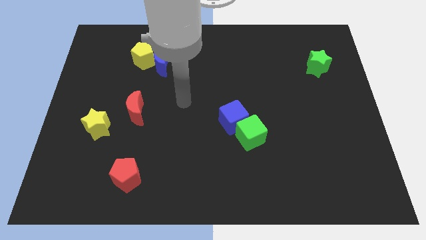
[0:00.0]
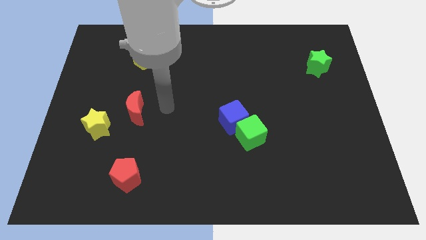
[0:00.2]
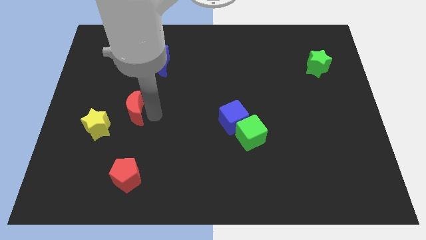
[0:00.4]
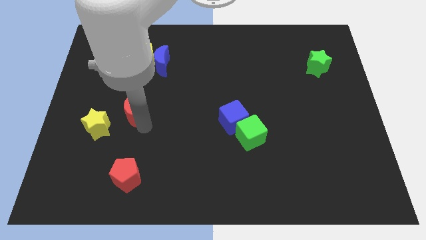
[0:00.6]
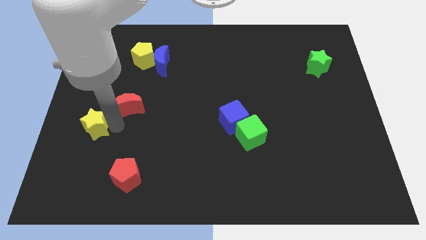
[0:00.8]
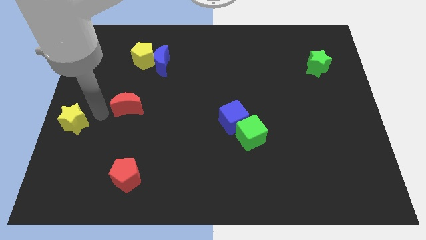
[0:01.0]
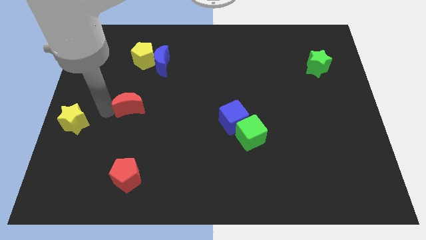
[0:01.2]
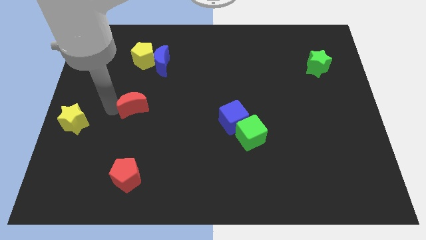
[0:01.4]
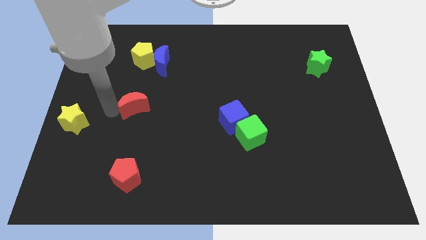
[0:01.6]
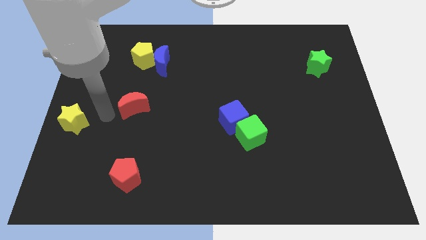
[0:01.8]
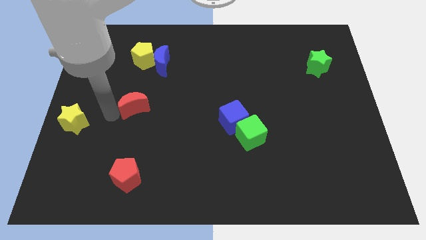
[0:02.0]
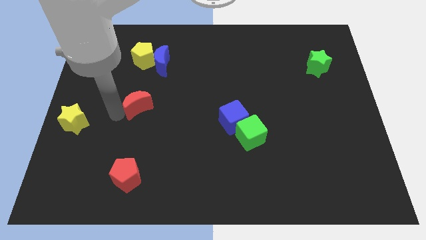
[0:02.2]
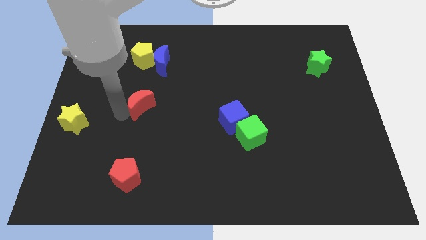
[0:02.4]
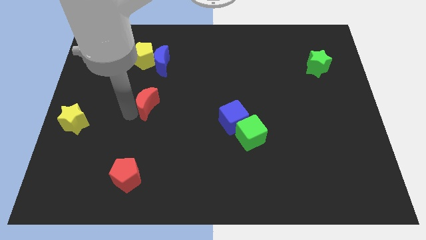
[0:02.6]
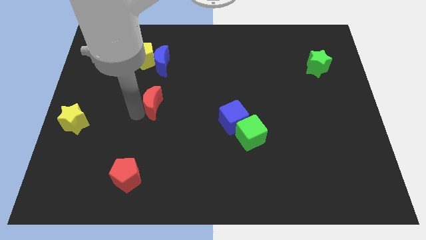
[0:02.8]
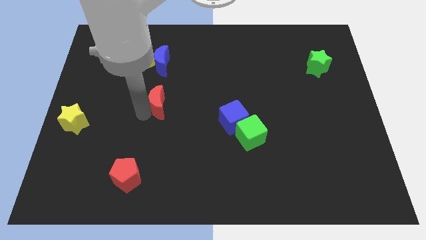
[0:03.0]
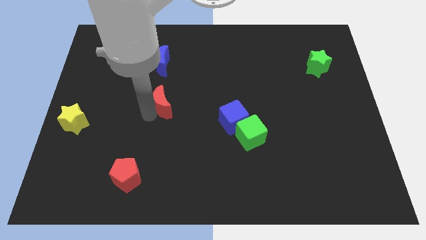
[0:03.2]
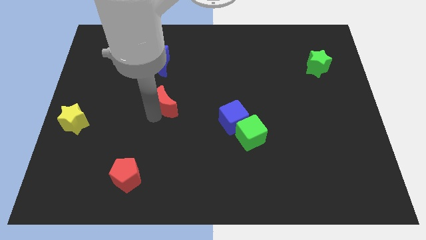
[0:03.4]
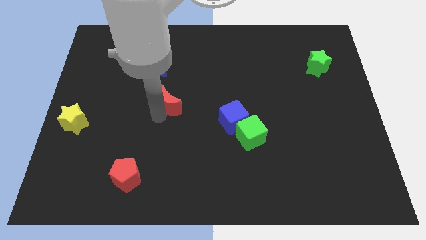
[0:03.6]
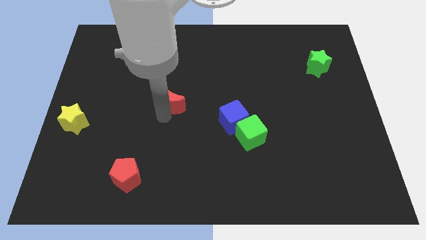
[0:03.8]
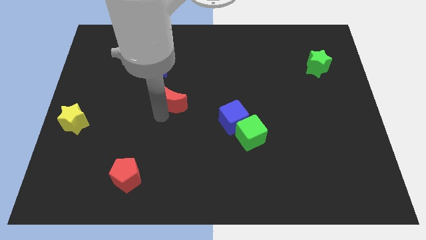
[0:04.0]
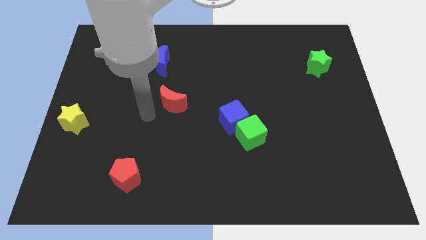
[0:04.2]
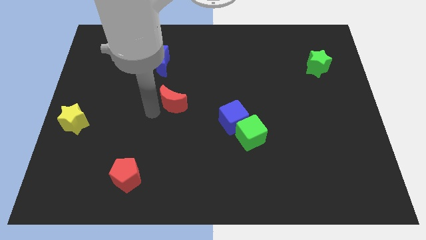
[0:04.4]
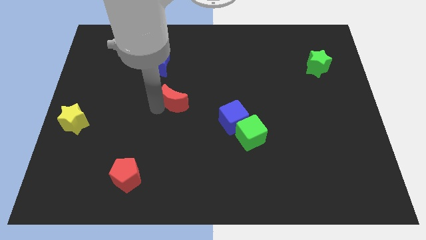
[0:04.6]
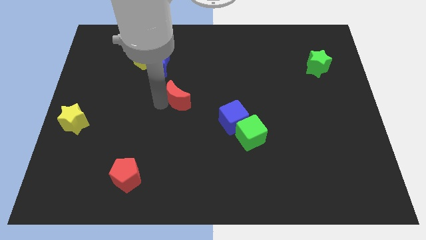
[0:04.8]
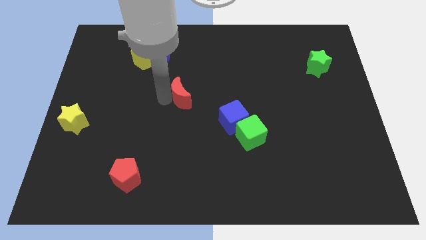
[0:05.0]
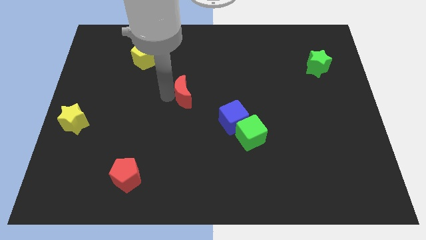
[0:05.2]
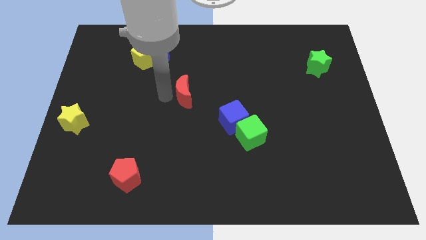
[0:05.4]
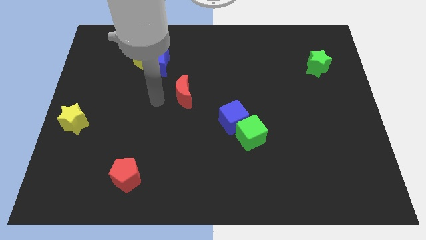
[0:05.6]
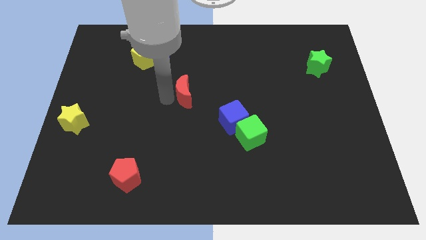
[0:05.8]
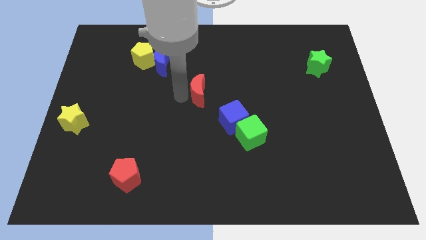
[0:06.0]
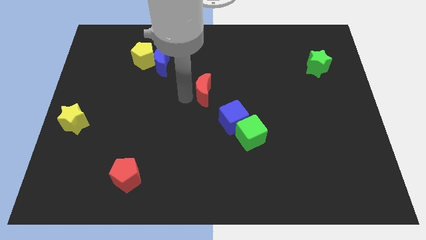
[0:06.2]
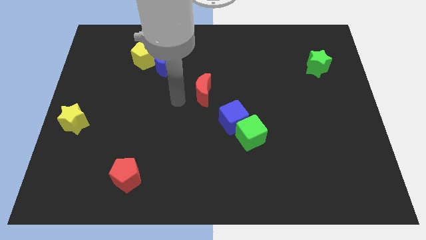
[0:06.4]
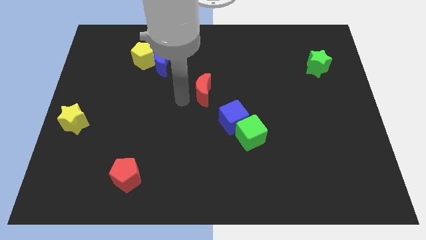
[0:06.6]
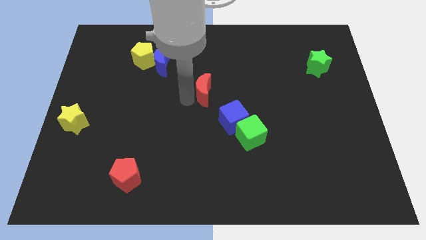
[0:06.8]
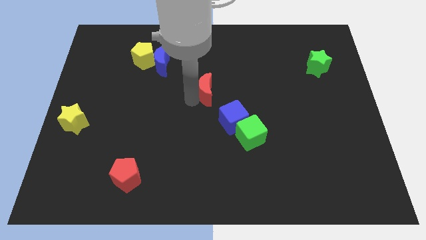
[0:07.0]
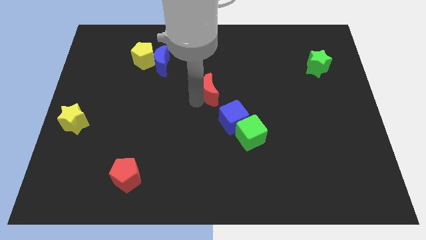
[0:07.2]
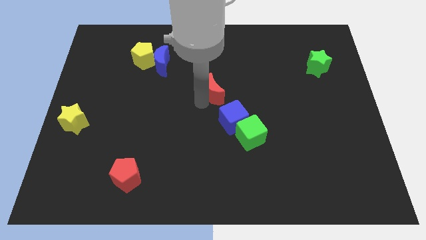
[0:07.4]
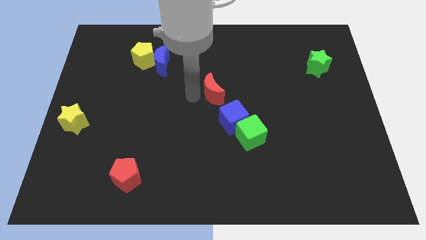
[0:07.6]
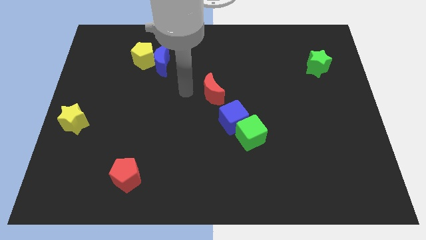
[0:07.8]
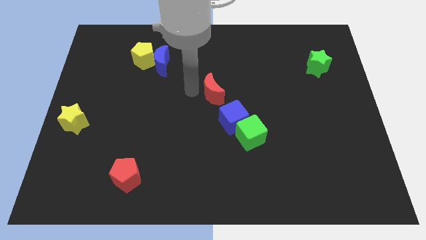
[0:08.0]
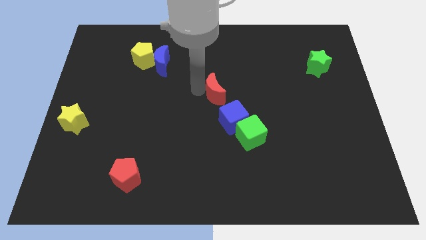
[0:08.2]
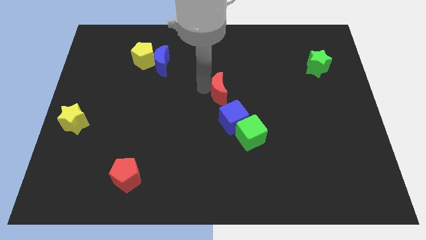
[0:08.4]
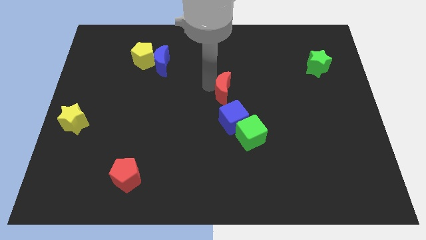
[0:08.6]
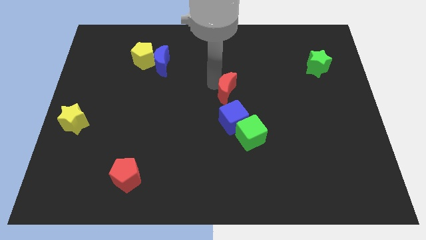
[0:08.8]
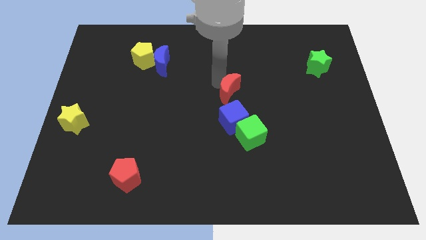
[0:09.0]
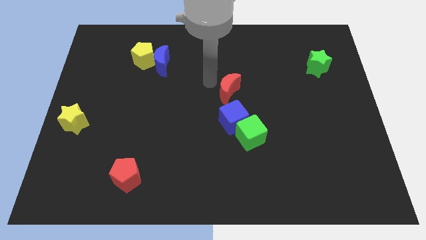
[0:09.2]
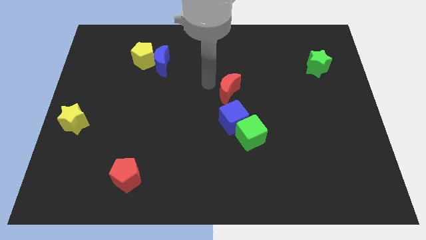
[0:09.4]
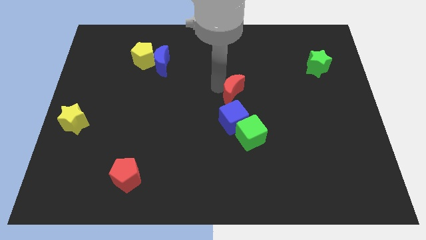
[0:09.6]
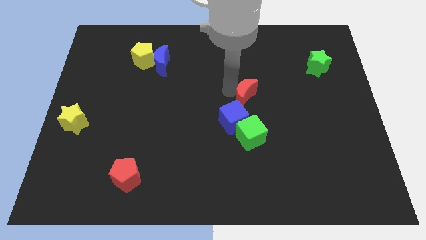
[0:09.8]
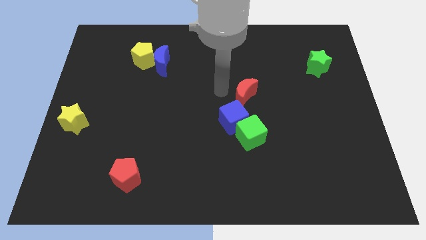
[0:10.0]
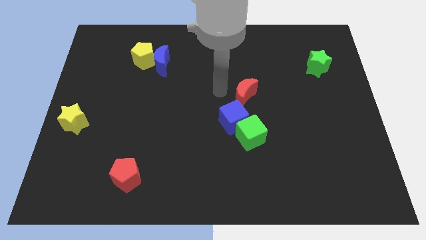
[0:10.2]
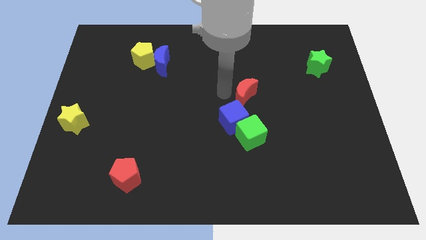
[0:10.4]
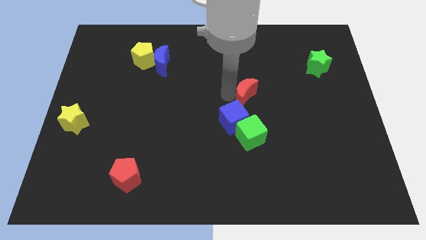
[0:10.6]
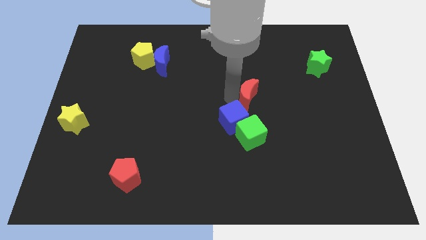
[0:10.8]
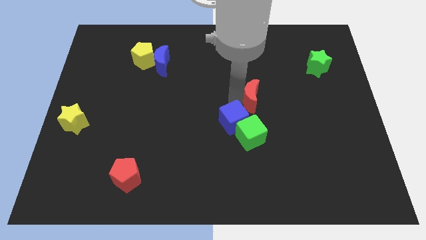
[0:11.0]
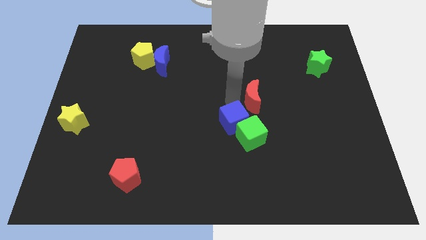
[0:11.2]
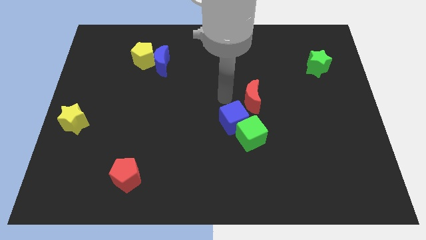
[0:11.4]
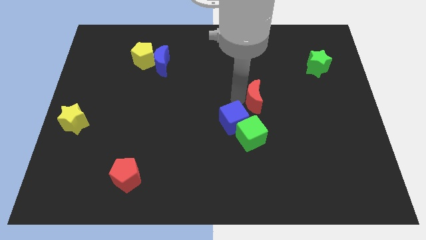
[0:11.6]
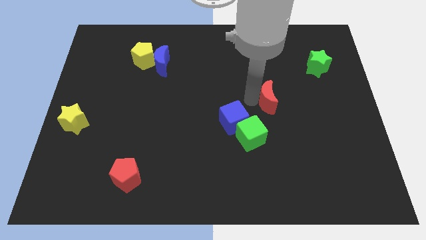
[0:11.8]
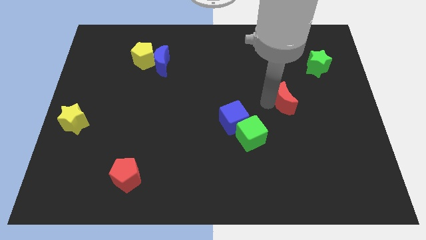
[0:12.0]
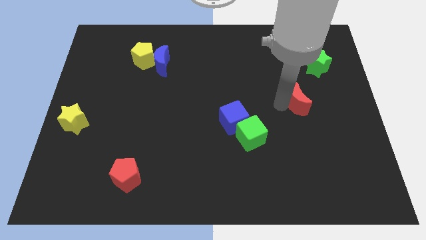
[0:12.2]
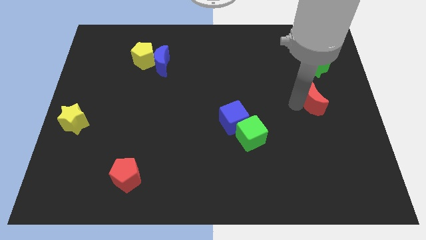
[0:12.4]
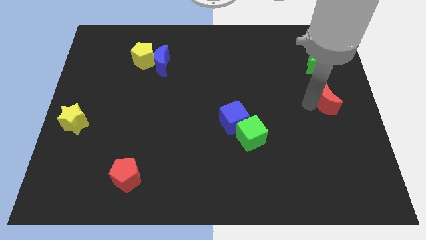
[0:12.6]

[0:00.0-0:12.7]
move the red moon to the right side
